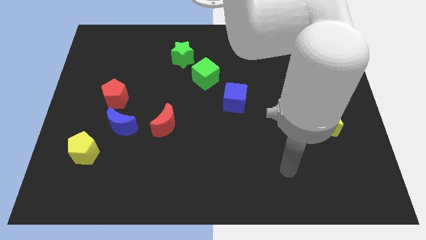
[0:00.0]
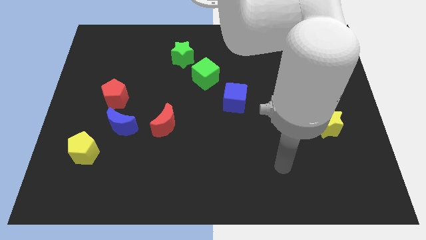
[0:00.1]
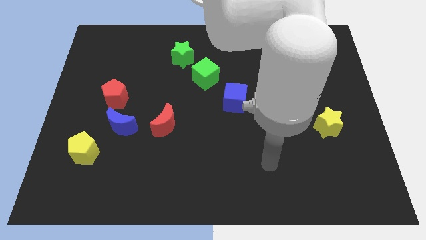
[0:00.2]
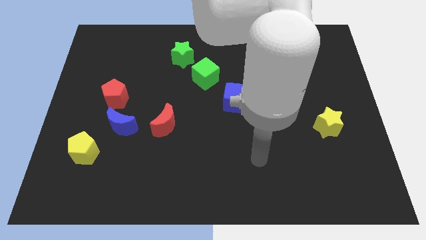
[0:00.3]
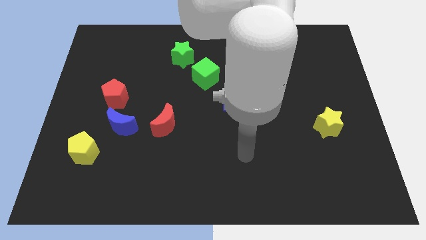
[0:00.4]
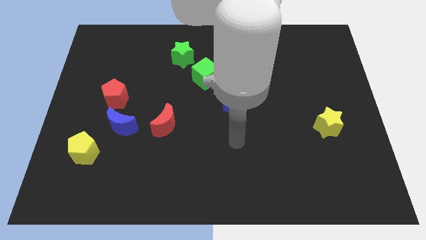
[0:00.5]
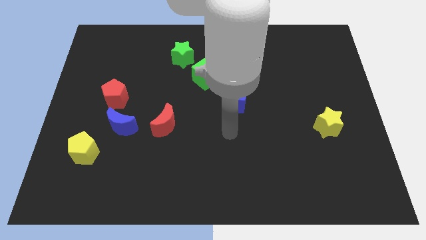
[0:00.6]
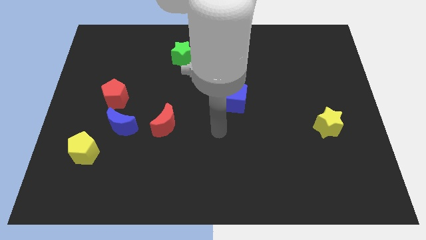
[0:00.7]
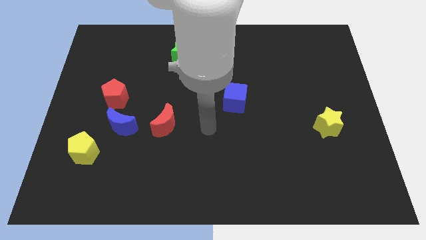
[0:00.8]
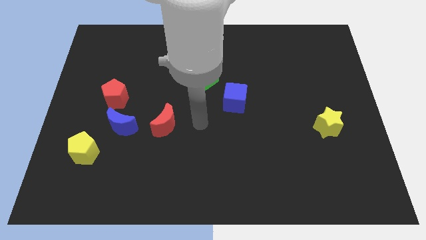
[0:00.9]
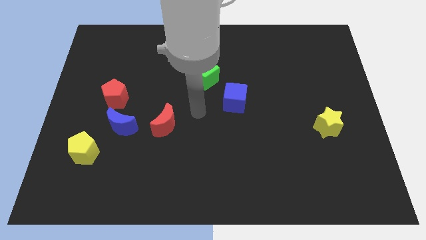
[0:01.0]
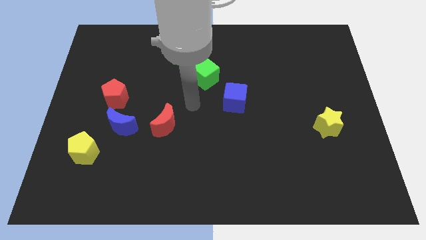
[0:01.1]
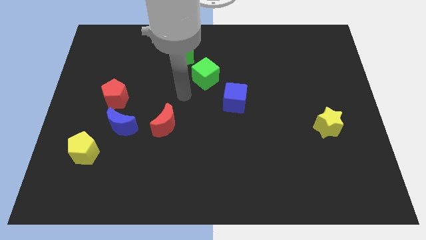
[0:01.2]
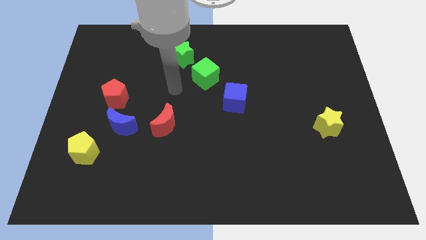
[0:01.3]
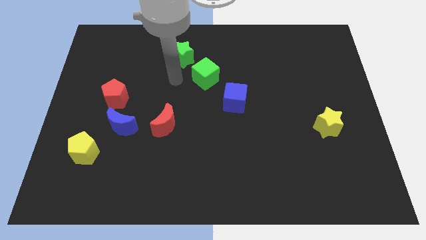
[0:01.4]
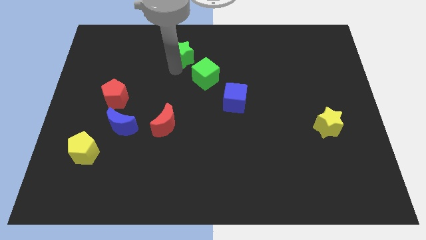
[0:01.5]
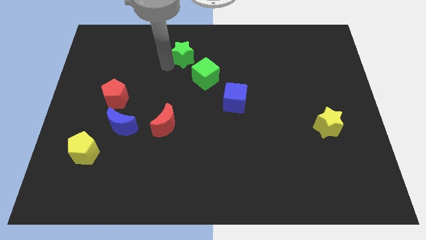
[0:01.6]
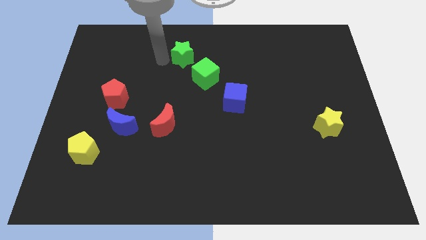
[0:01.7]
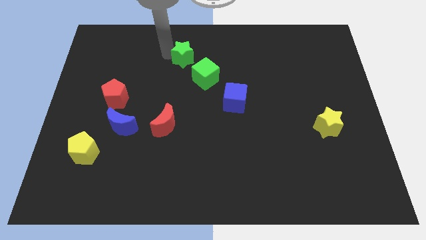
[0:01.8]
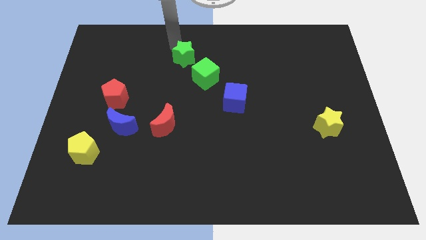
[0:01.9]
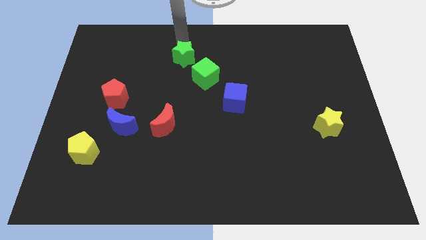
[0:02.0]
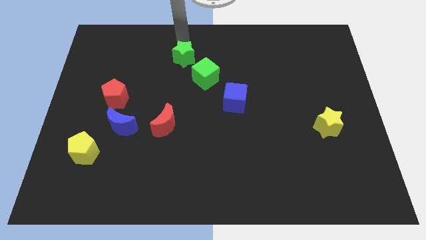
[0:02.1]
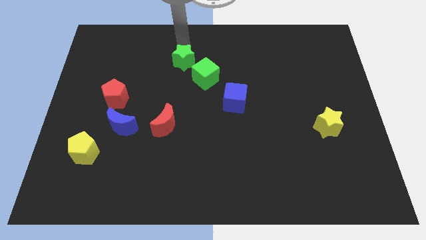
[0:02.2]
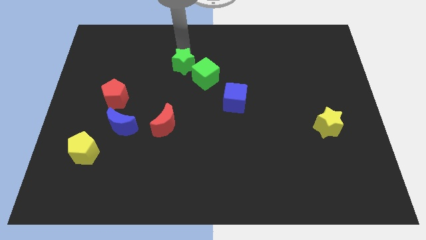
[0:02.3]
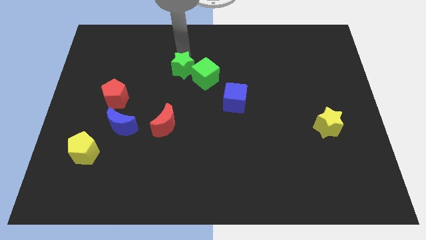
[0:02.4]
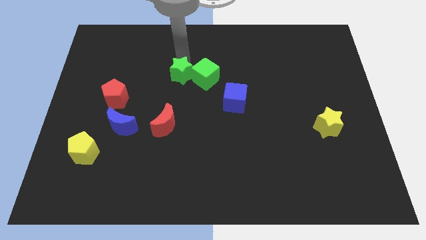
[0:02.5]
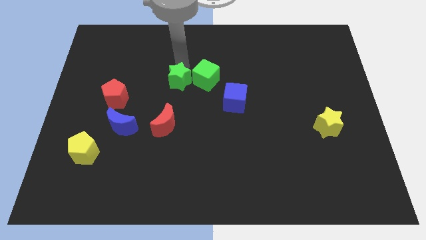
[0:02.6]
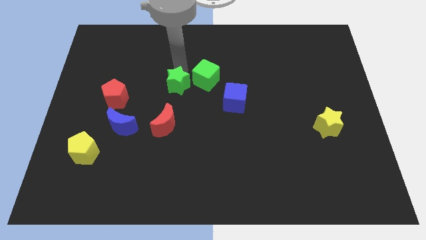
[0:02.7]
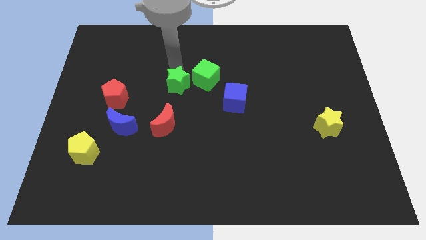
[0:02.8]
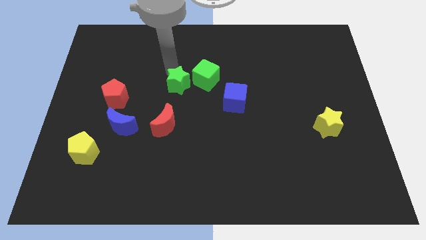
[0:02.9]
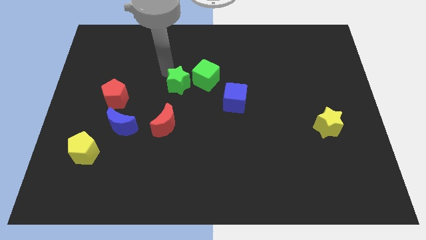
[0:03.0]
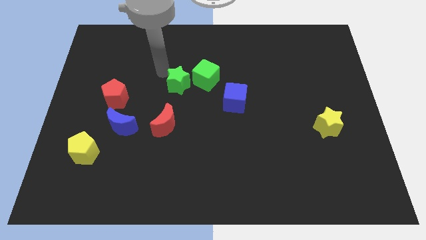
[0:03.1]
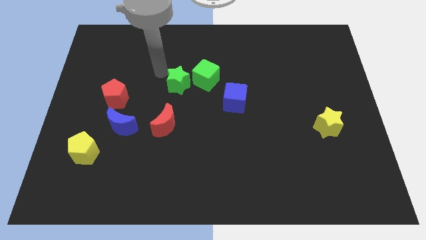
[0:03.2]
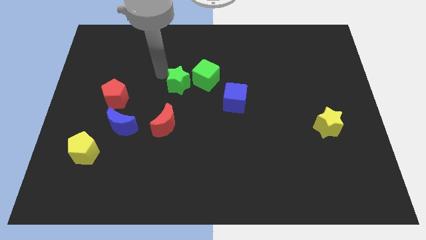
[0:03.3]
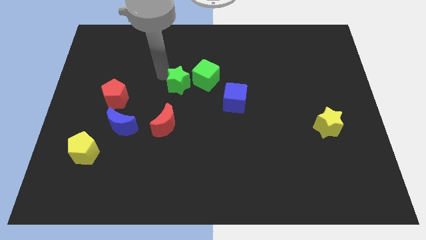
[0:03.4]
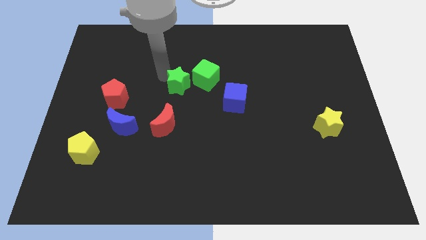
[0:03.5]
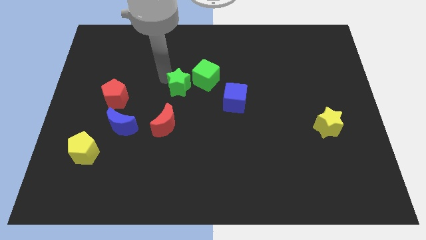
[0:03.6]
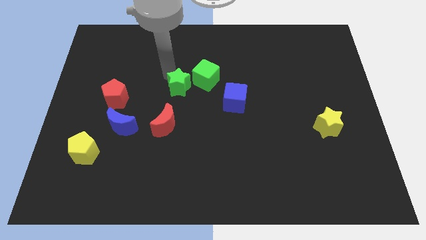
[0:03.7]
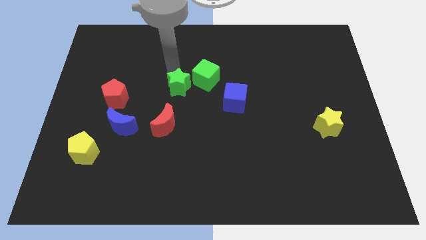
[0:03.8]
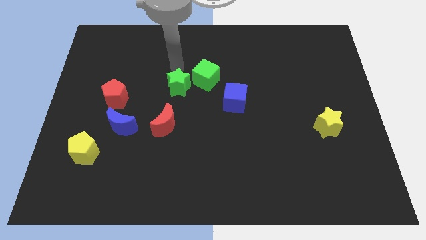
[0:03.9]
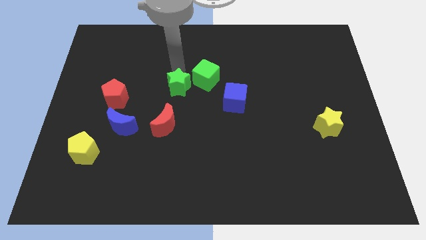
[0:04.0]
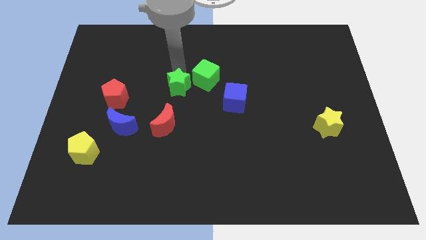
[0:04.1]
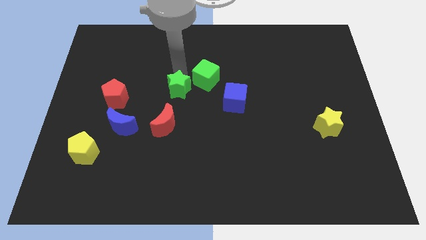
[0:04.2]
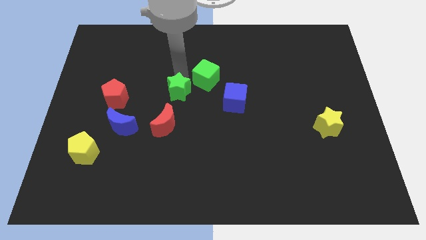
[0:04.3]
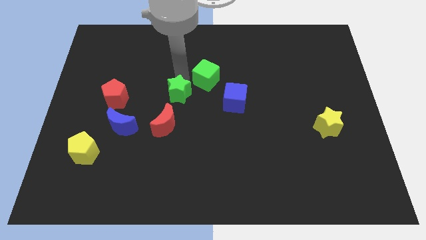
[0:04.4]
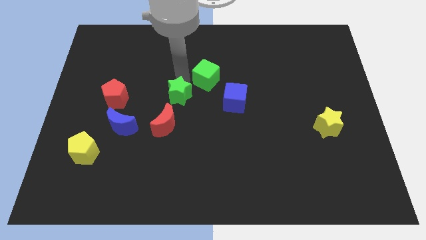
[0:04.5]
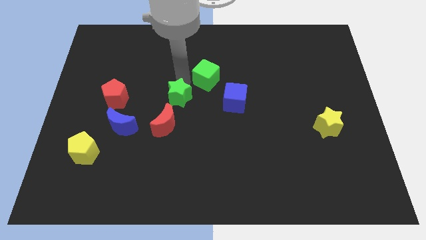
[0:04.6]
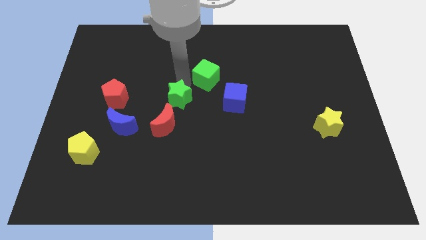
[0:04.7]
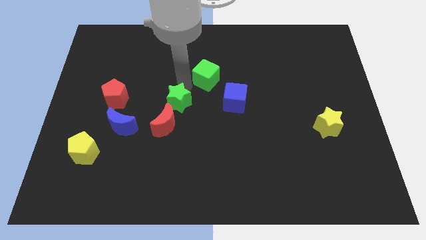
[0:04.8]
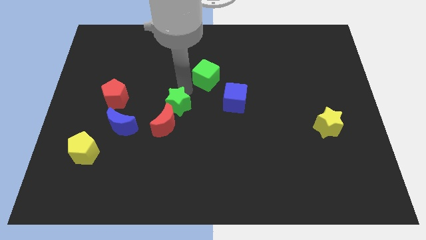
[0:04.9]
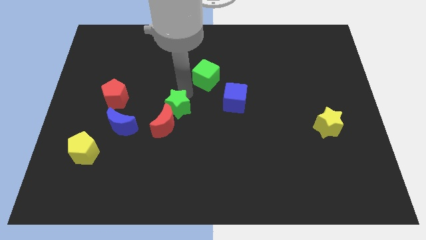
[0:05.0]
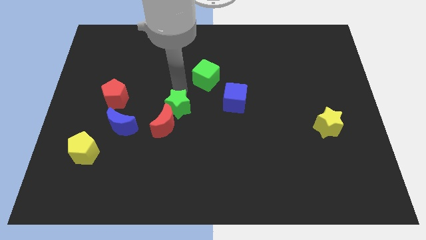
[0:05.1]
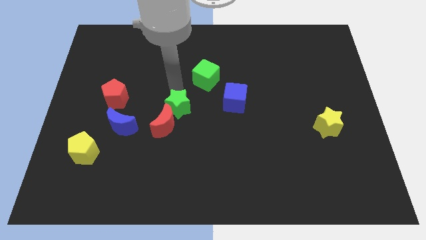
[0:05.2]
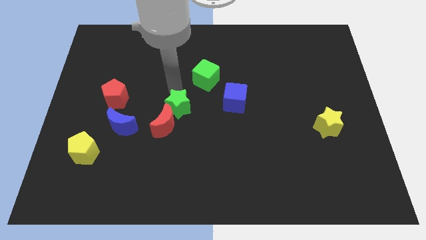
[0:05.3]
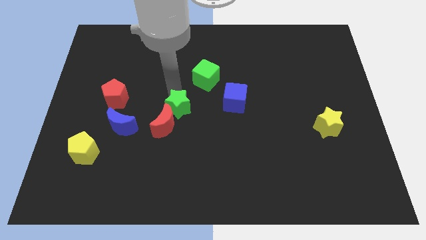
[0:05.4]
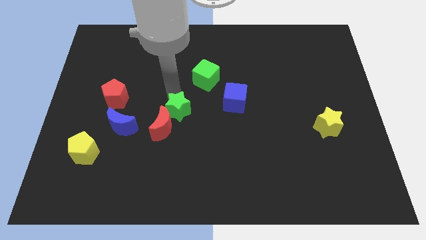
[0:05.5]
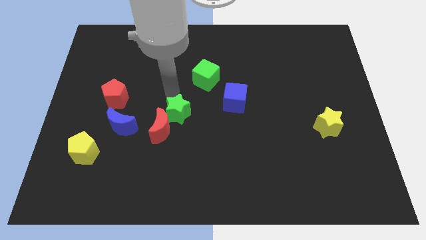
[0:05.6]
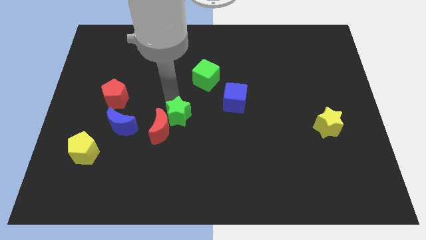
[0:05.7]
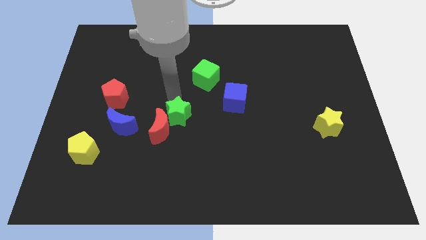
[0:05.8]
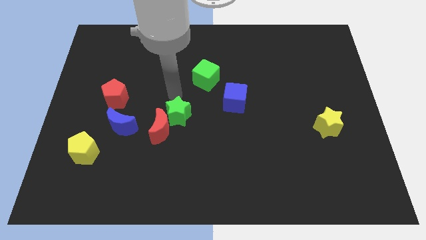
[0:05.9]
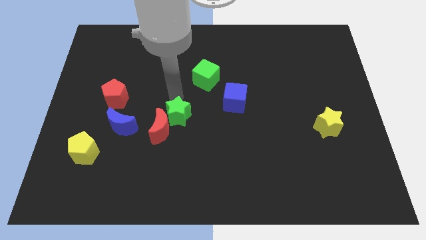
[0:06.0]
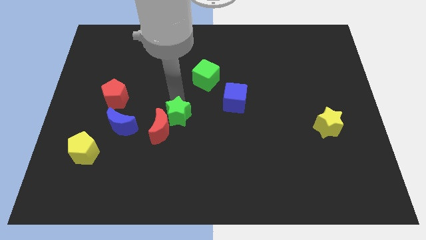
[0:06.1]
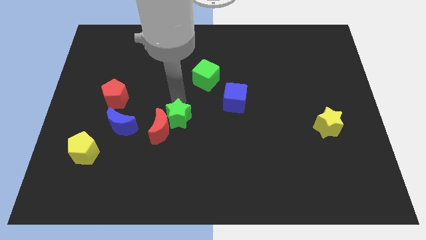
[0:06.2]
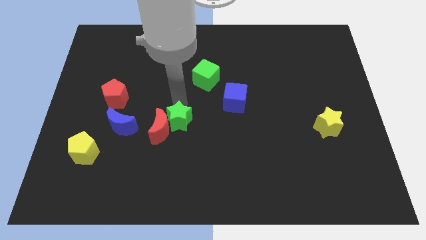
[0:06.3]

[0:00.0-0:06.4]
push the green star down

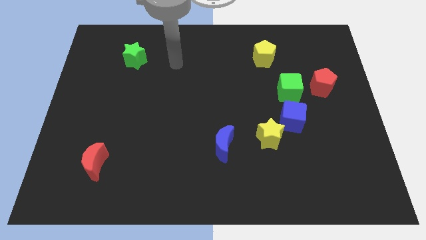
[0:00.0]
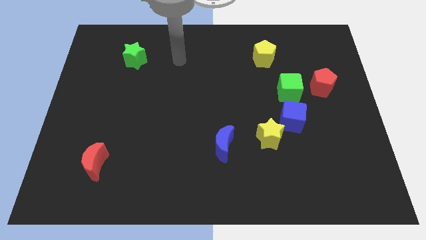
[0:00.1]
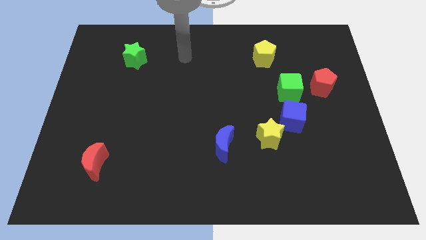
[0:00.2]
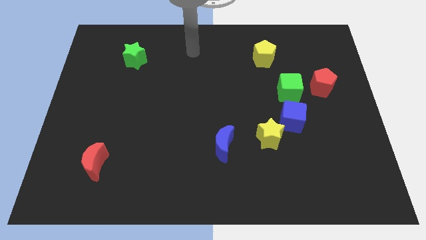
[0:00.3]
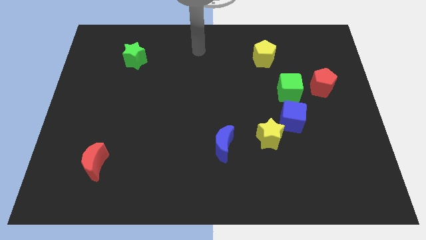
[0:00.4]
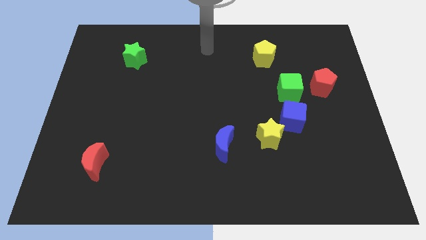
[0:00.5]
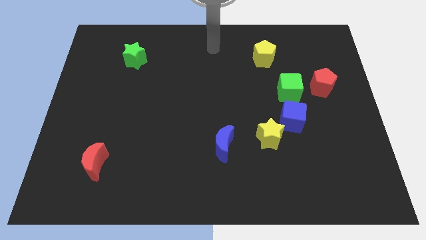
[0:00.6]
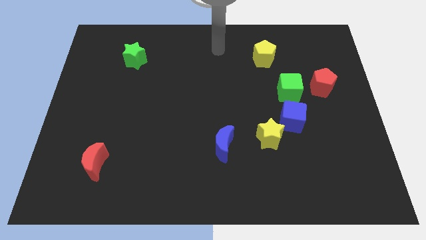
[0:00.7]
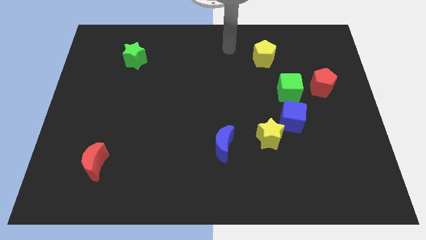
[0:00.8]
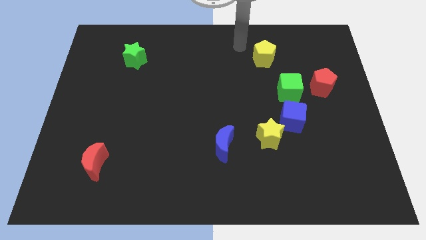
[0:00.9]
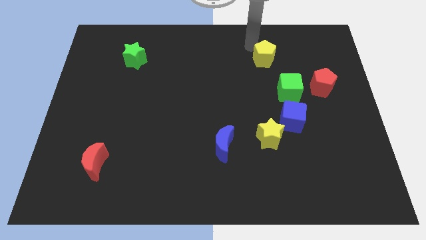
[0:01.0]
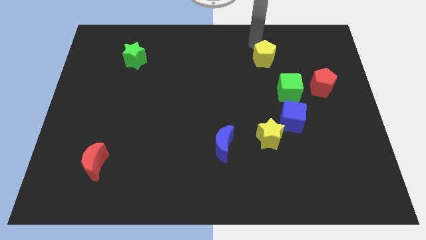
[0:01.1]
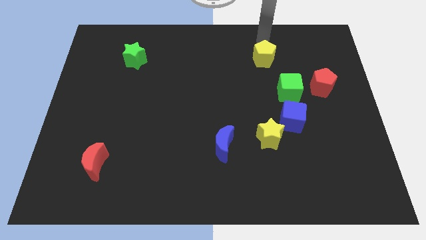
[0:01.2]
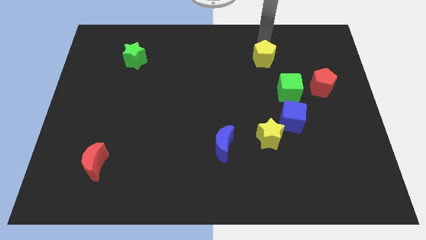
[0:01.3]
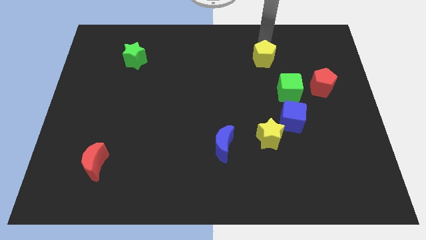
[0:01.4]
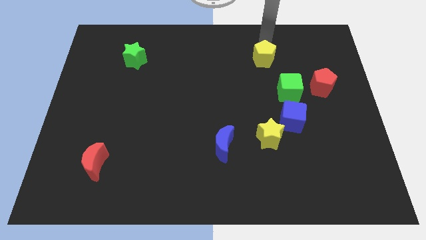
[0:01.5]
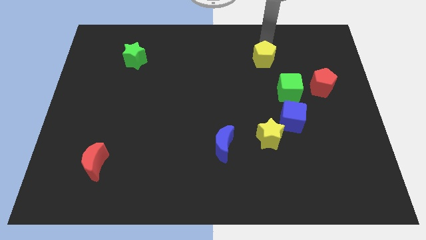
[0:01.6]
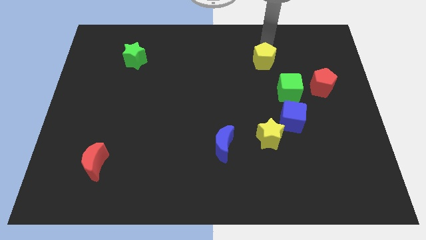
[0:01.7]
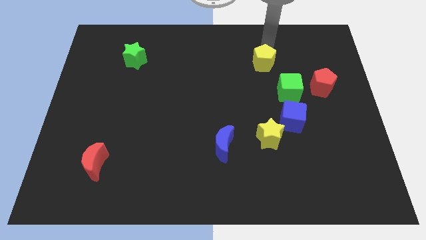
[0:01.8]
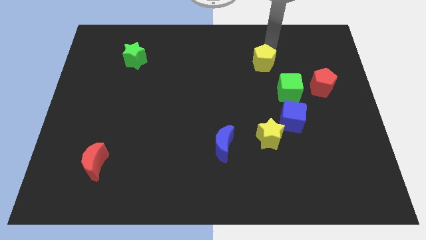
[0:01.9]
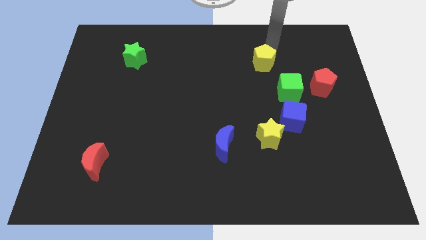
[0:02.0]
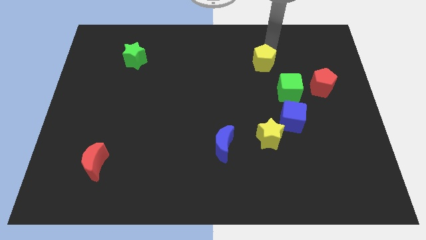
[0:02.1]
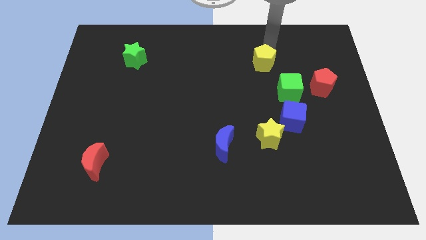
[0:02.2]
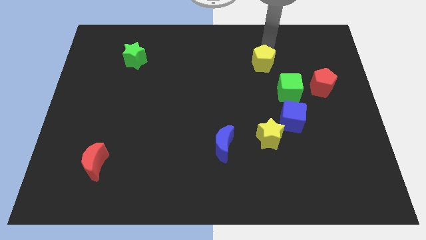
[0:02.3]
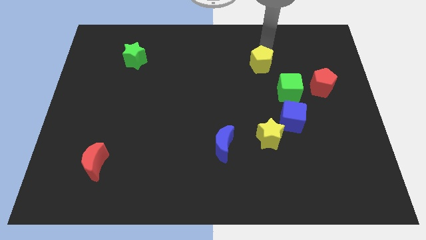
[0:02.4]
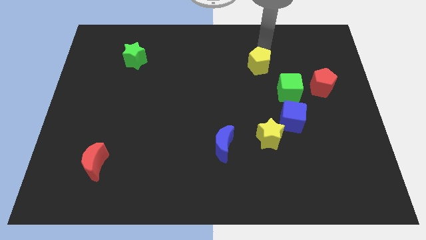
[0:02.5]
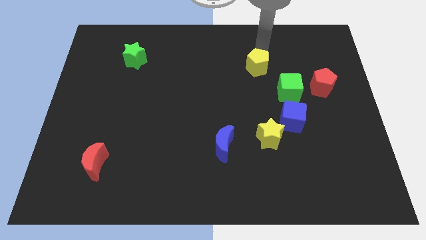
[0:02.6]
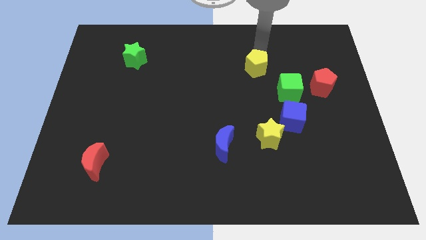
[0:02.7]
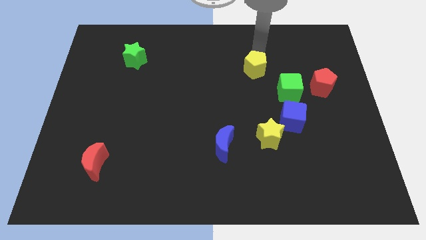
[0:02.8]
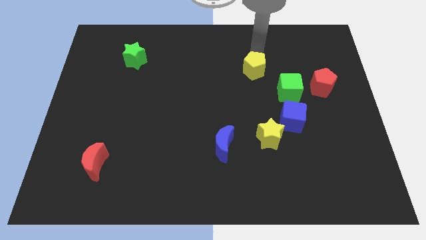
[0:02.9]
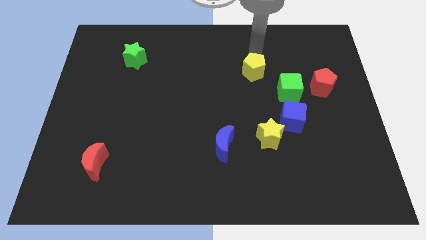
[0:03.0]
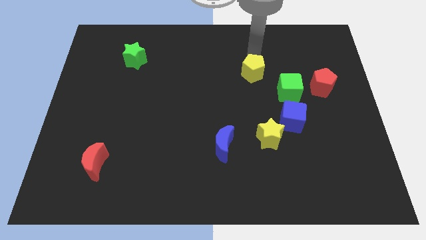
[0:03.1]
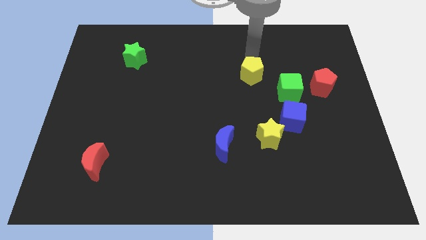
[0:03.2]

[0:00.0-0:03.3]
slide the yellow pentagon down and left diagonally a bit
